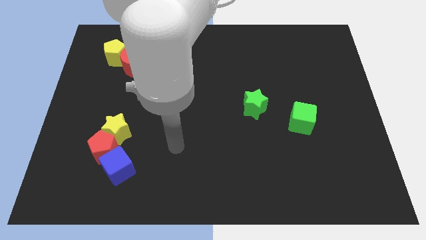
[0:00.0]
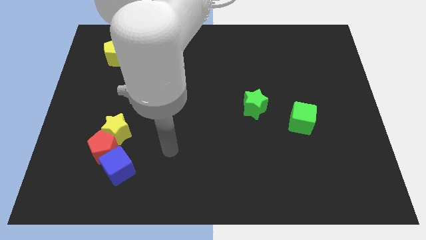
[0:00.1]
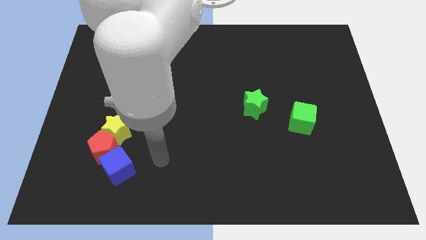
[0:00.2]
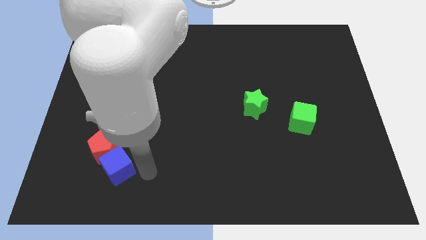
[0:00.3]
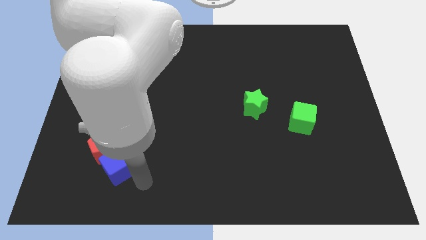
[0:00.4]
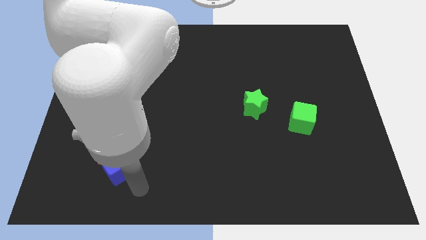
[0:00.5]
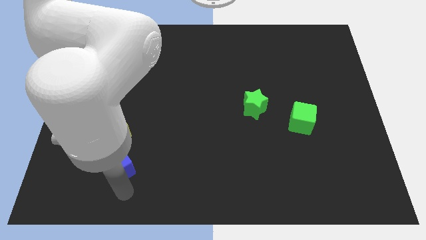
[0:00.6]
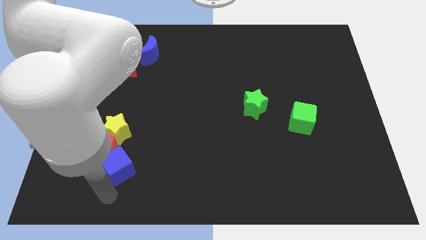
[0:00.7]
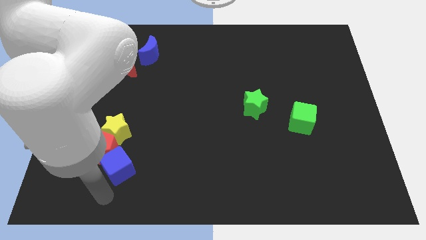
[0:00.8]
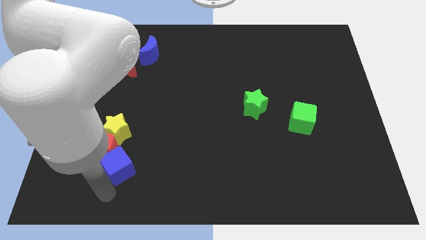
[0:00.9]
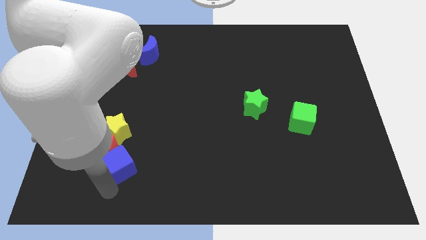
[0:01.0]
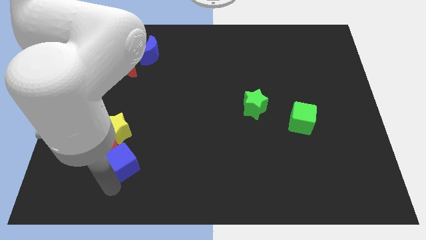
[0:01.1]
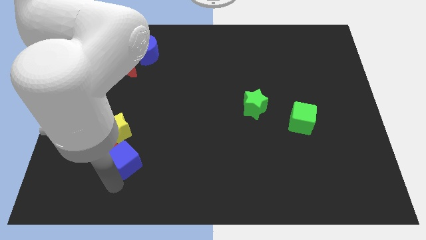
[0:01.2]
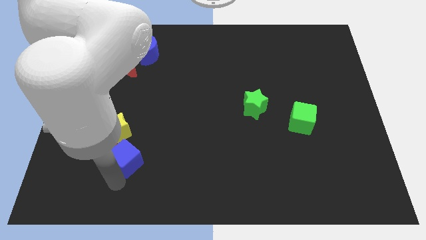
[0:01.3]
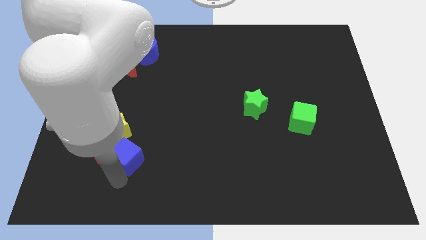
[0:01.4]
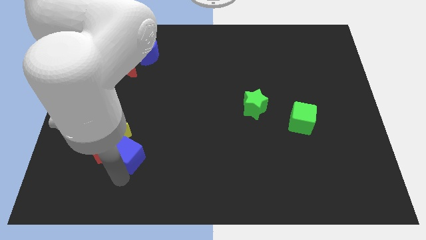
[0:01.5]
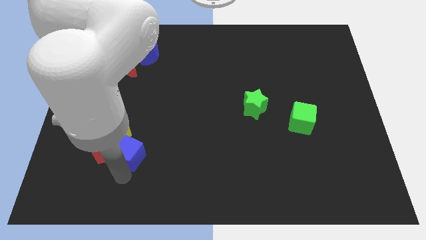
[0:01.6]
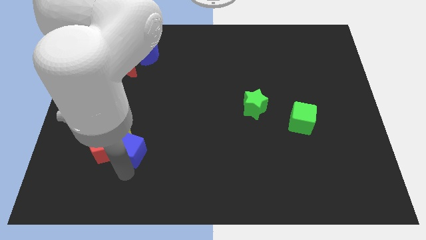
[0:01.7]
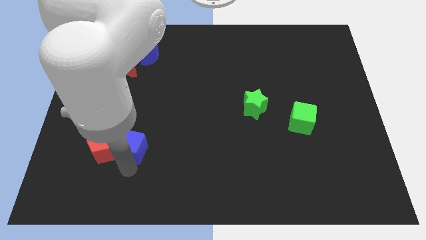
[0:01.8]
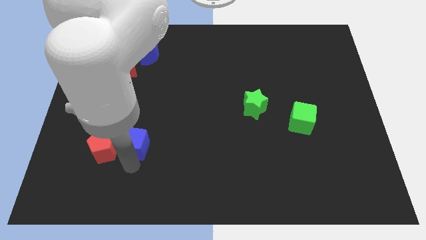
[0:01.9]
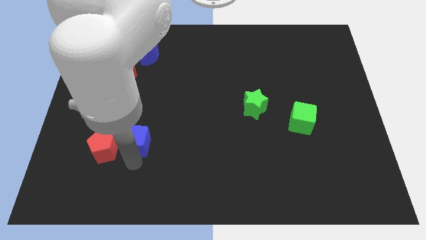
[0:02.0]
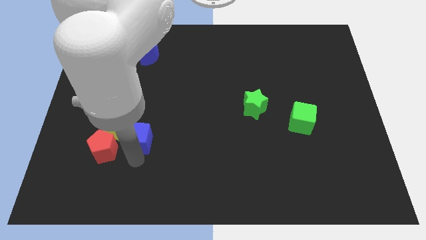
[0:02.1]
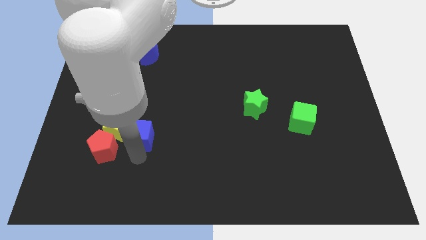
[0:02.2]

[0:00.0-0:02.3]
slide the blue cube upwards a bit

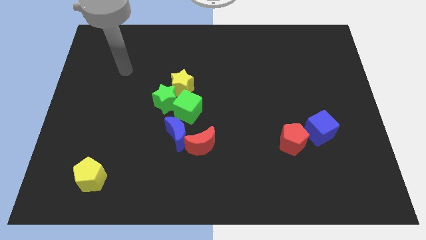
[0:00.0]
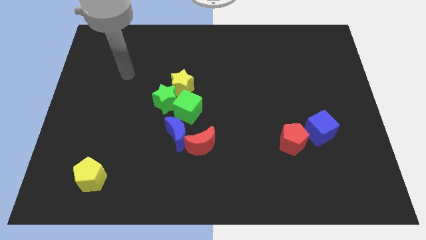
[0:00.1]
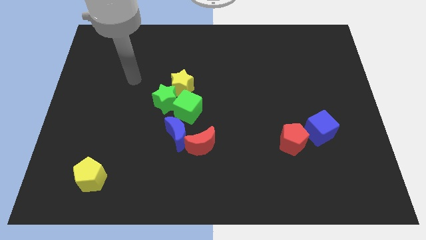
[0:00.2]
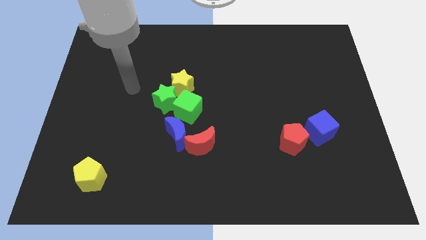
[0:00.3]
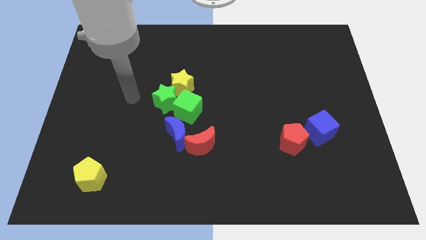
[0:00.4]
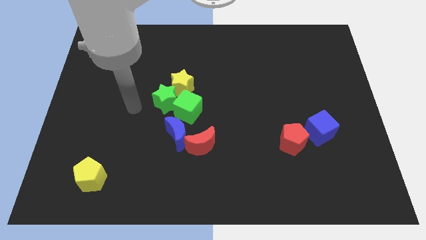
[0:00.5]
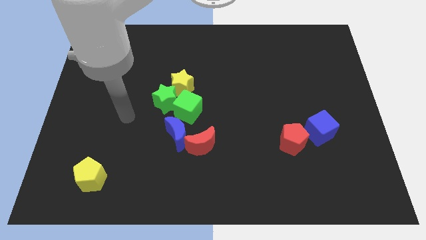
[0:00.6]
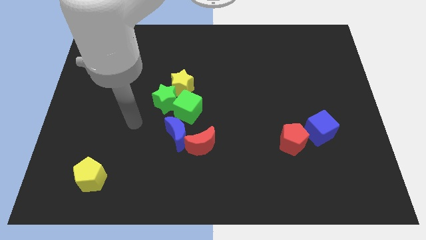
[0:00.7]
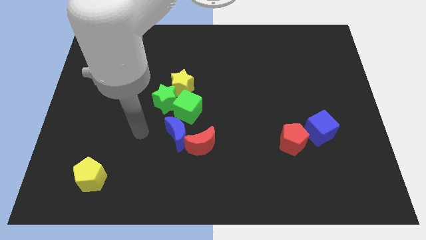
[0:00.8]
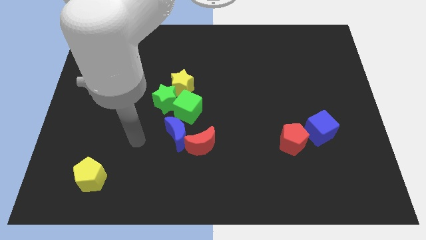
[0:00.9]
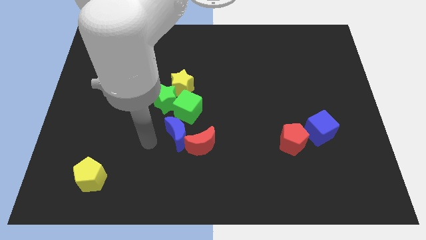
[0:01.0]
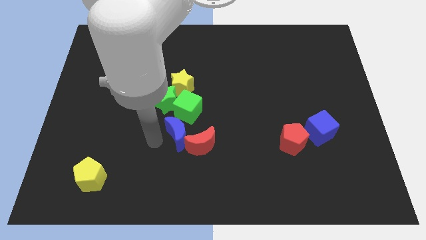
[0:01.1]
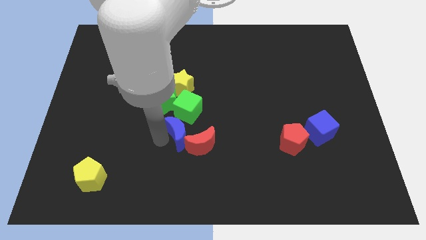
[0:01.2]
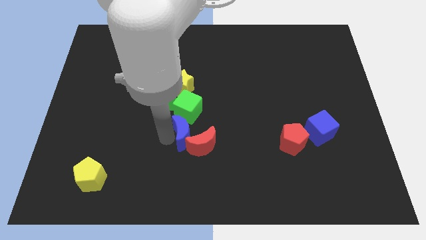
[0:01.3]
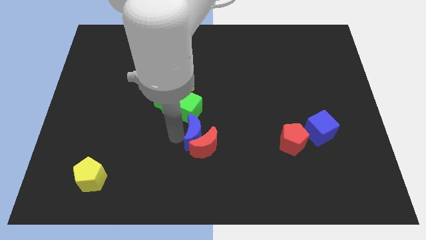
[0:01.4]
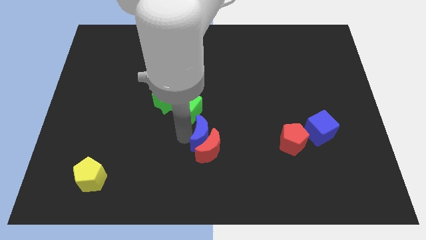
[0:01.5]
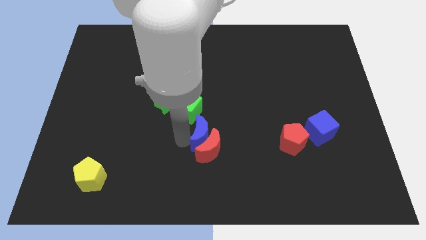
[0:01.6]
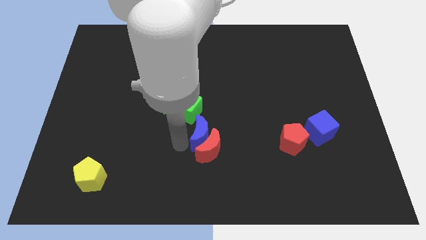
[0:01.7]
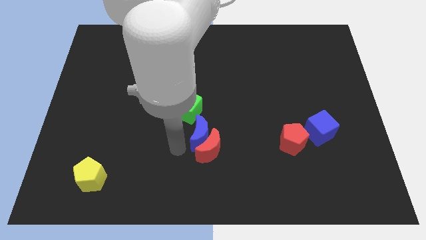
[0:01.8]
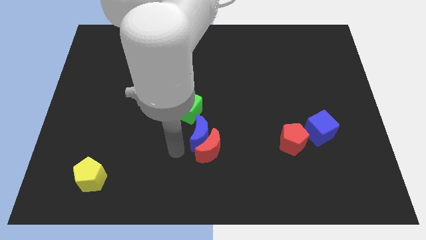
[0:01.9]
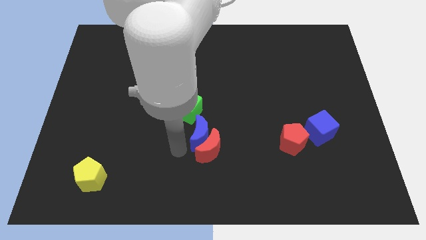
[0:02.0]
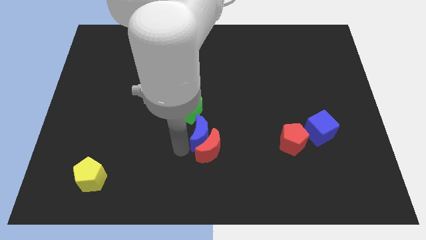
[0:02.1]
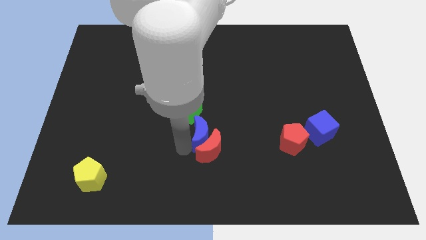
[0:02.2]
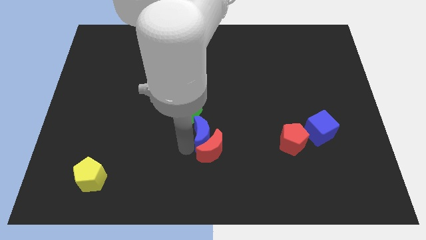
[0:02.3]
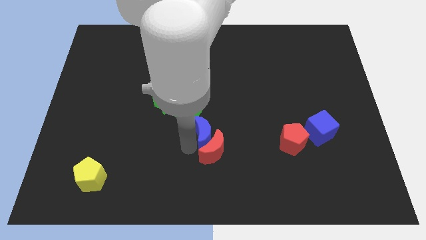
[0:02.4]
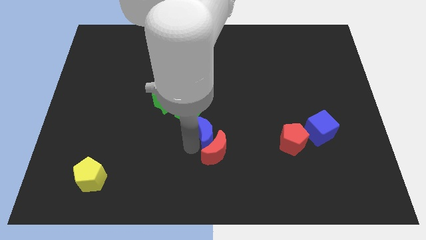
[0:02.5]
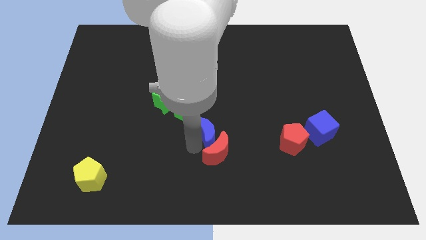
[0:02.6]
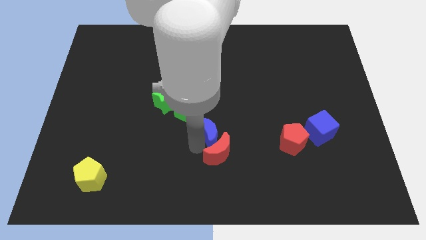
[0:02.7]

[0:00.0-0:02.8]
push the blue moon slightly to the right

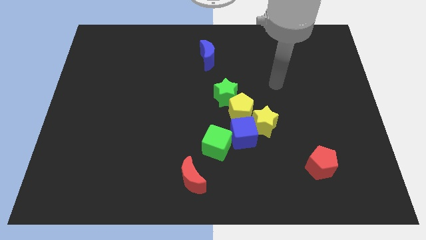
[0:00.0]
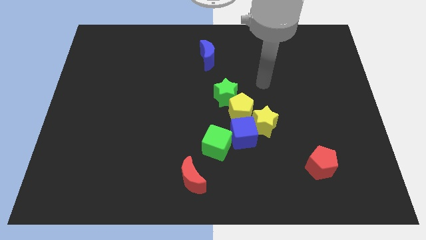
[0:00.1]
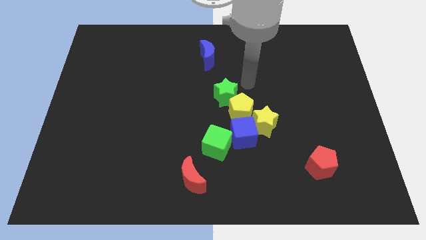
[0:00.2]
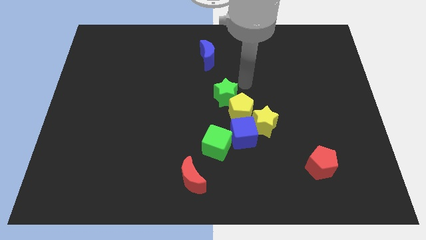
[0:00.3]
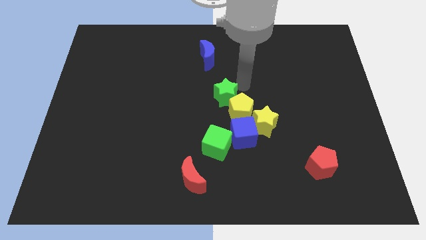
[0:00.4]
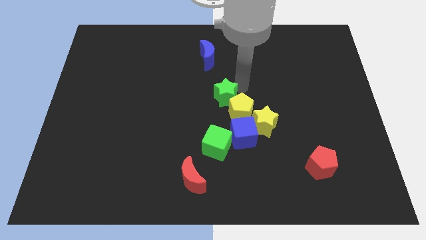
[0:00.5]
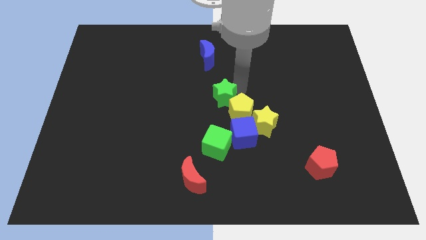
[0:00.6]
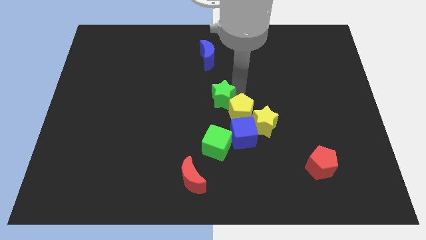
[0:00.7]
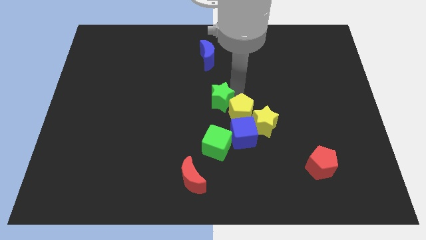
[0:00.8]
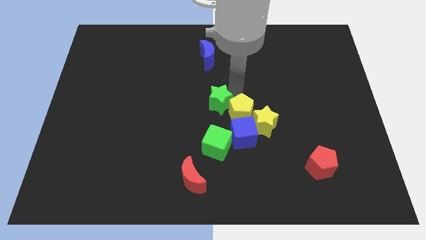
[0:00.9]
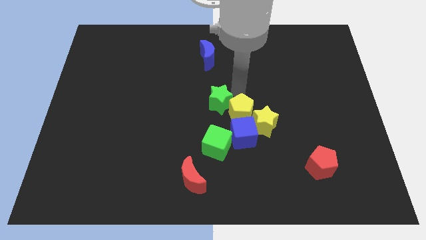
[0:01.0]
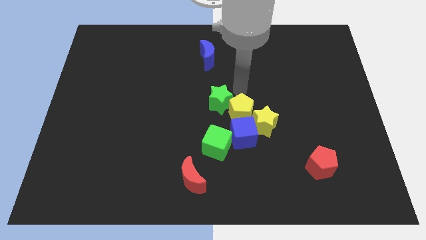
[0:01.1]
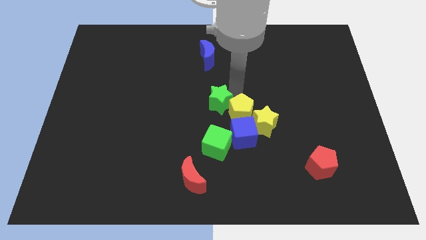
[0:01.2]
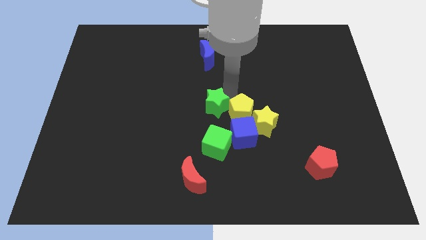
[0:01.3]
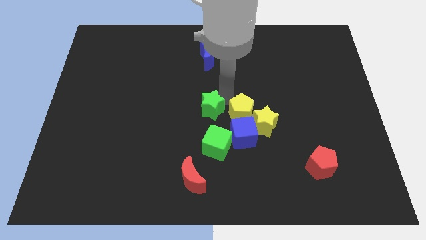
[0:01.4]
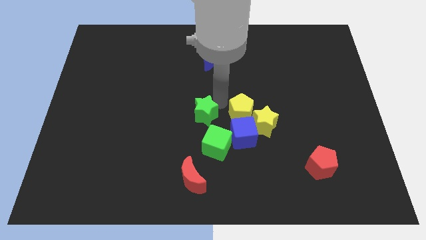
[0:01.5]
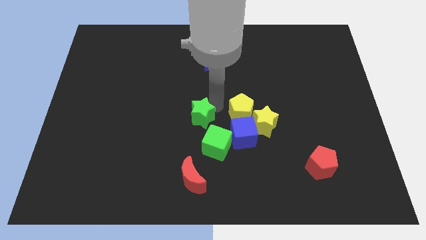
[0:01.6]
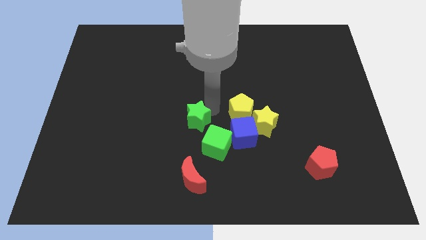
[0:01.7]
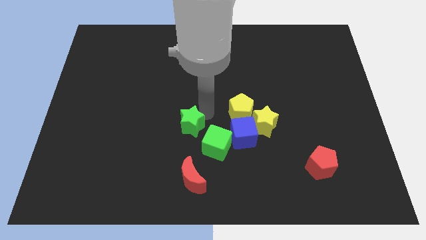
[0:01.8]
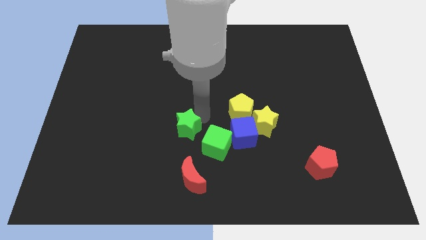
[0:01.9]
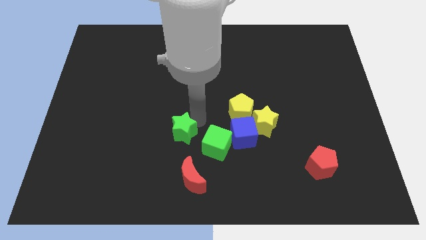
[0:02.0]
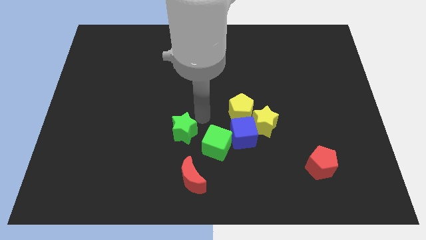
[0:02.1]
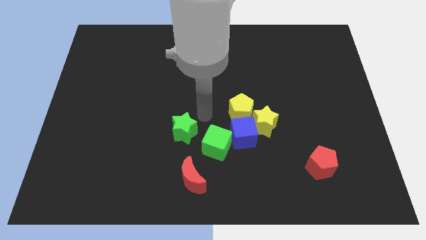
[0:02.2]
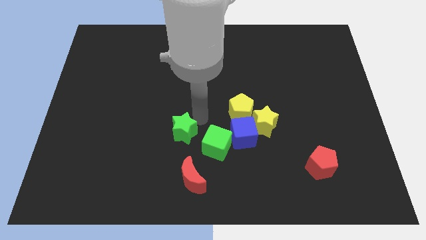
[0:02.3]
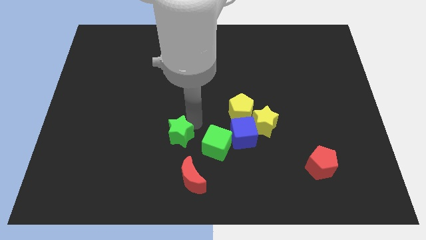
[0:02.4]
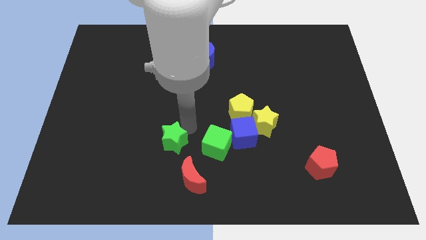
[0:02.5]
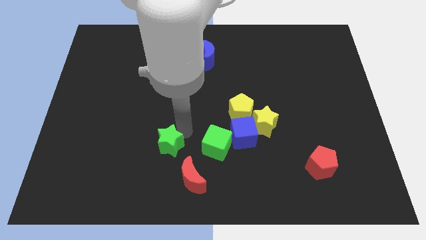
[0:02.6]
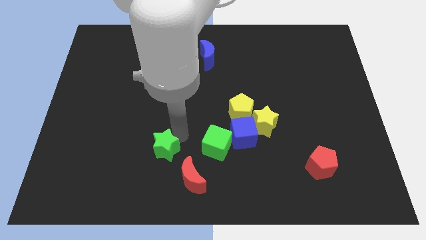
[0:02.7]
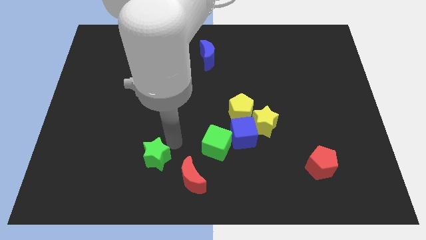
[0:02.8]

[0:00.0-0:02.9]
move the green star diagonally down and left

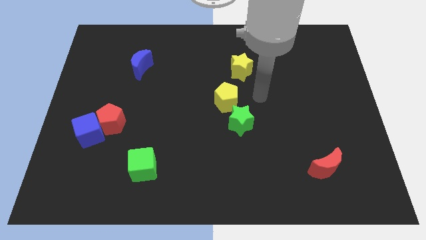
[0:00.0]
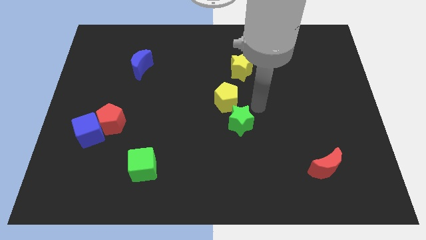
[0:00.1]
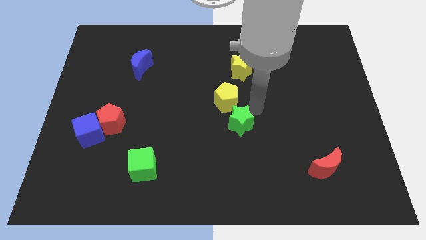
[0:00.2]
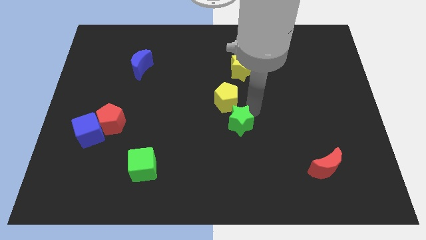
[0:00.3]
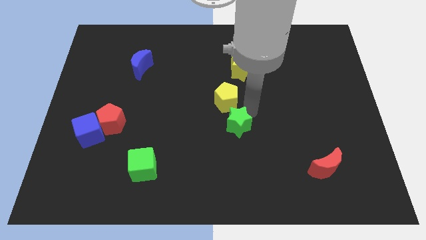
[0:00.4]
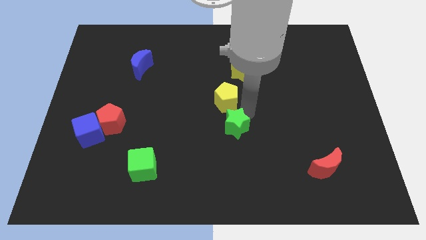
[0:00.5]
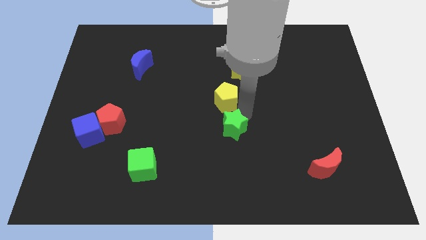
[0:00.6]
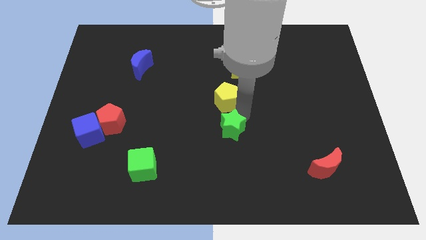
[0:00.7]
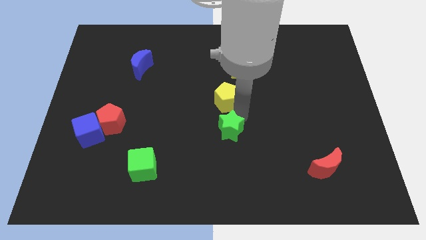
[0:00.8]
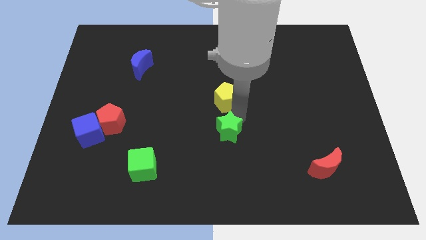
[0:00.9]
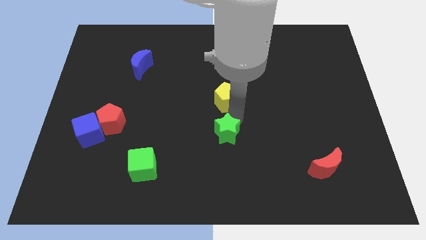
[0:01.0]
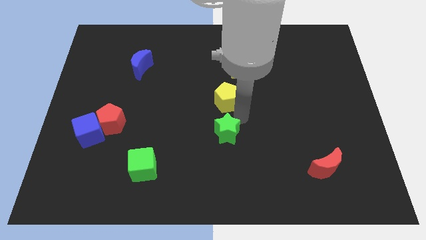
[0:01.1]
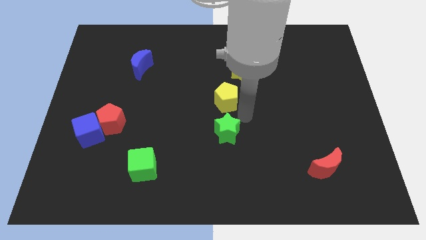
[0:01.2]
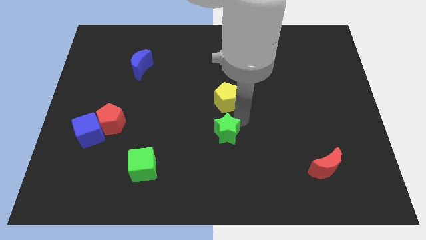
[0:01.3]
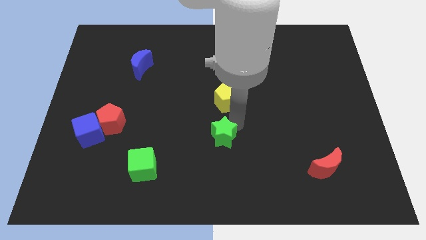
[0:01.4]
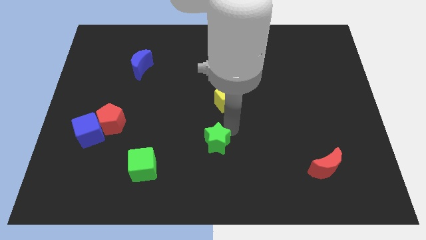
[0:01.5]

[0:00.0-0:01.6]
slightly move the green star down and left
